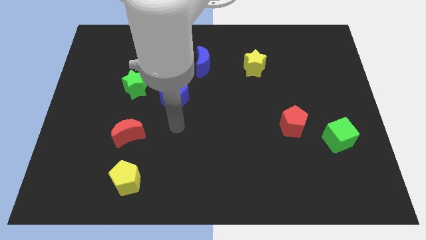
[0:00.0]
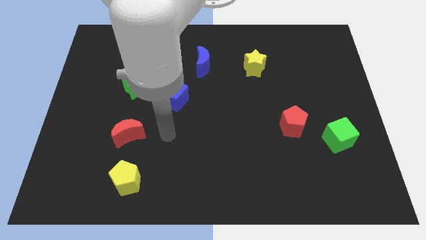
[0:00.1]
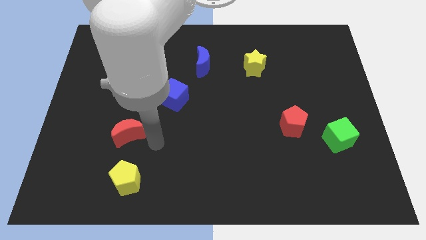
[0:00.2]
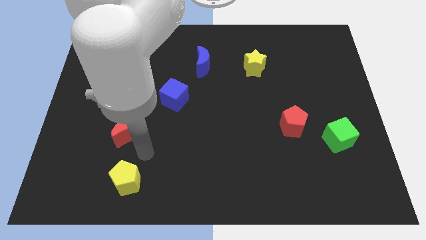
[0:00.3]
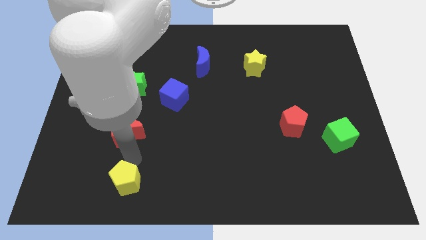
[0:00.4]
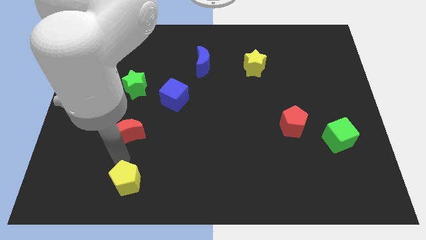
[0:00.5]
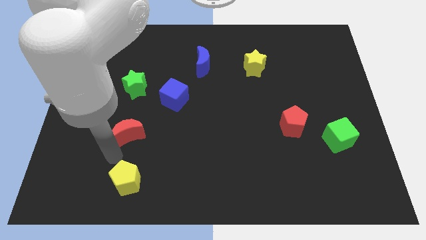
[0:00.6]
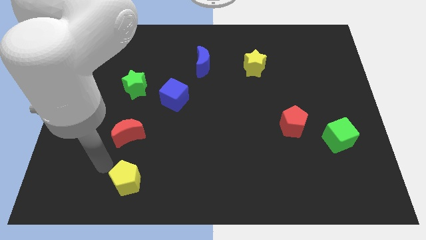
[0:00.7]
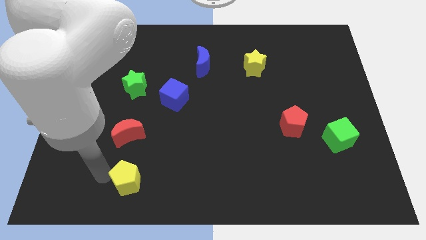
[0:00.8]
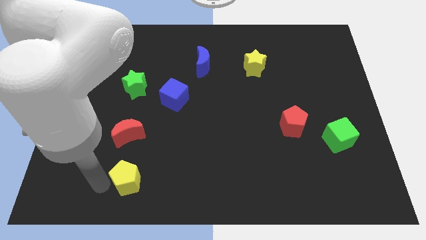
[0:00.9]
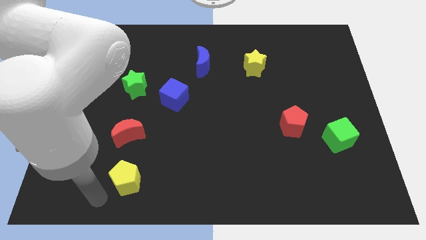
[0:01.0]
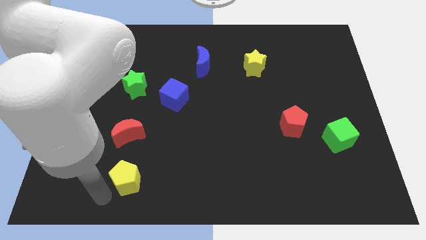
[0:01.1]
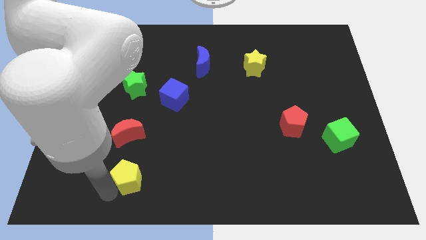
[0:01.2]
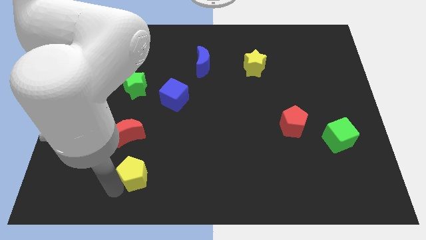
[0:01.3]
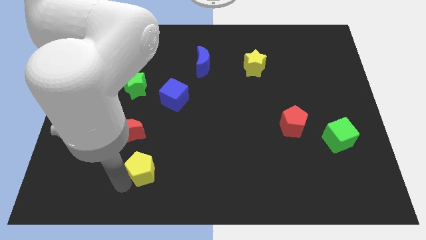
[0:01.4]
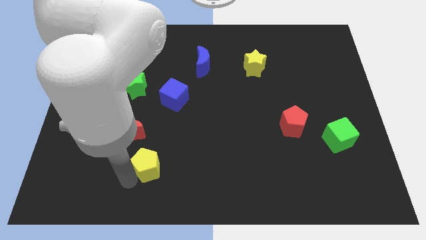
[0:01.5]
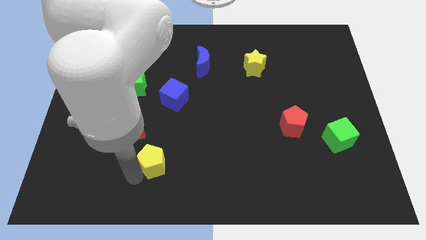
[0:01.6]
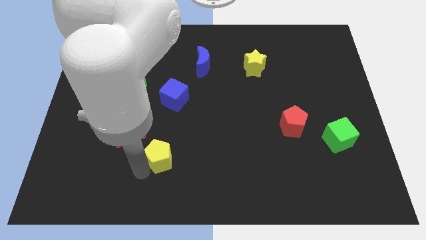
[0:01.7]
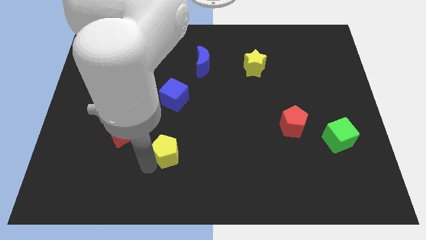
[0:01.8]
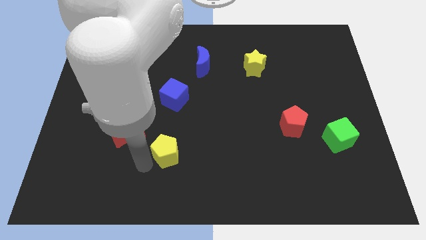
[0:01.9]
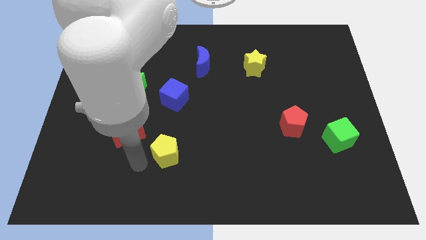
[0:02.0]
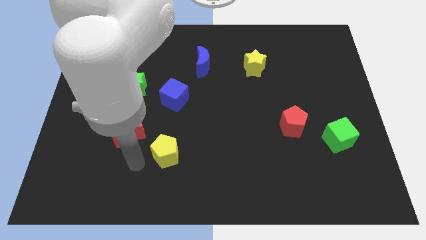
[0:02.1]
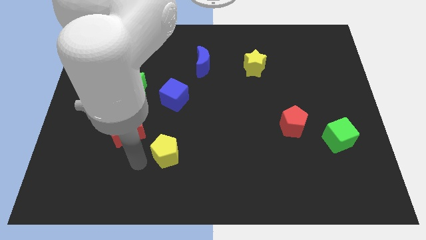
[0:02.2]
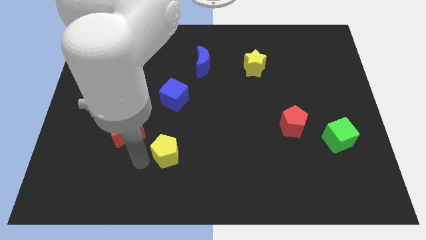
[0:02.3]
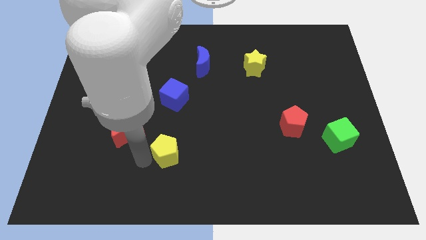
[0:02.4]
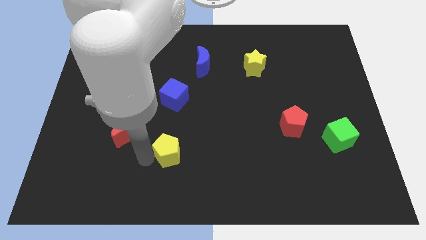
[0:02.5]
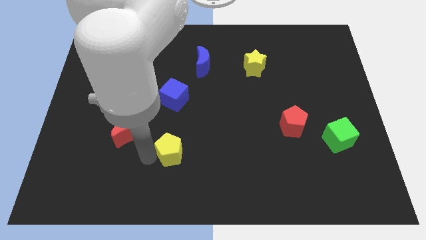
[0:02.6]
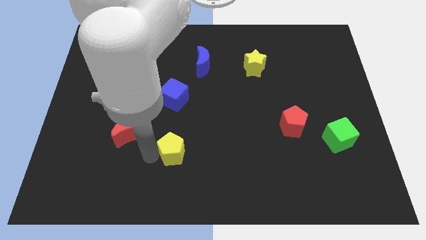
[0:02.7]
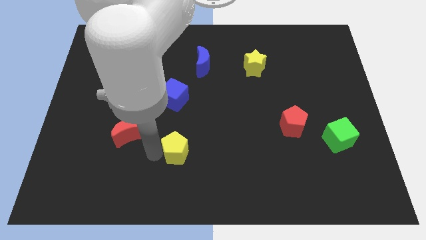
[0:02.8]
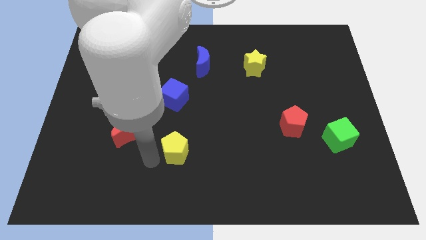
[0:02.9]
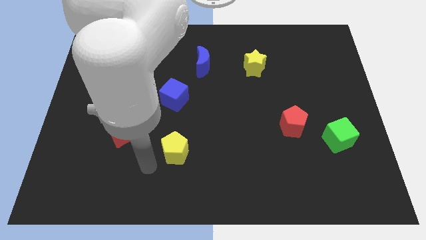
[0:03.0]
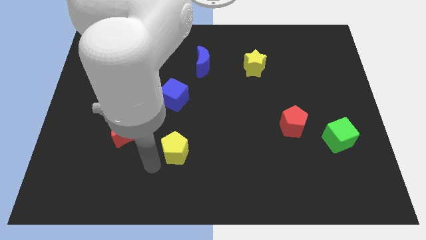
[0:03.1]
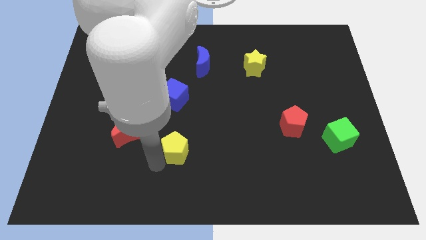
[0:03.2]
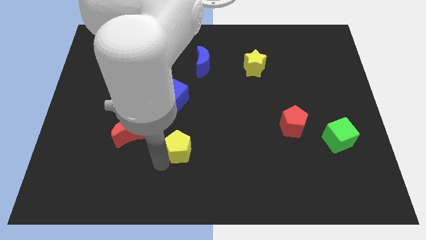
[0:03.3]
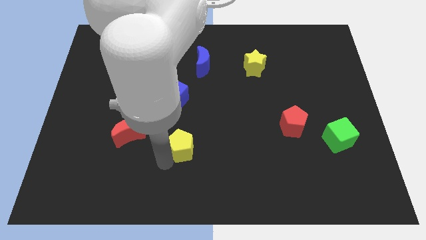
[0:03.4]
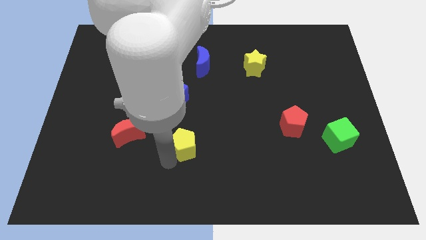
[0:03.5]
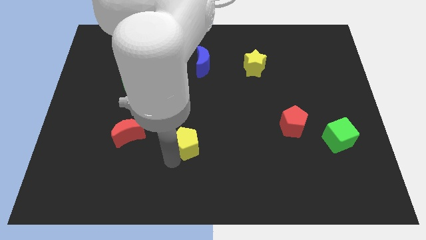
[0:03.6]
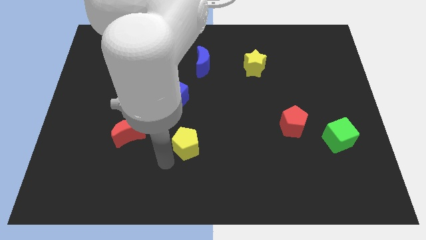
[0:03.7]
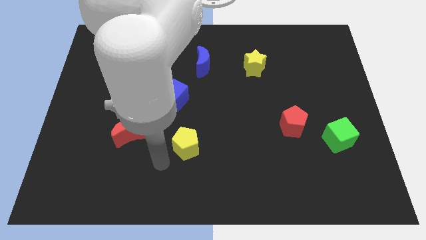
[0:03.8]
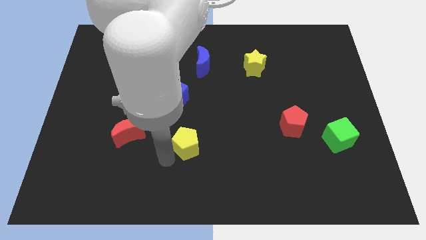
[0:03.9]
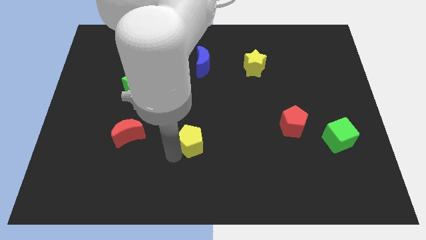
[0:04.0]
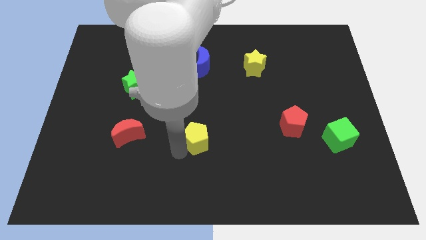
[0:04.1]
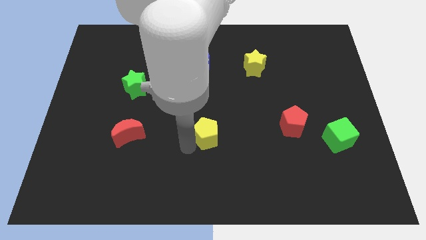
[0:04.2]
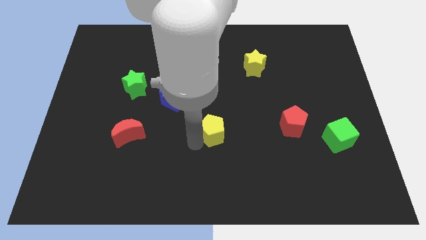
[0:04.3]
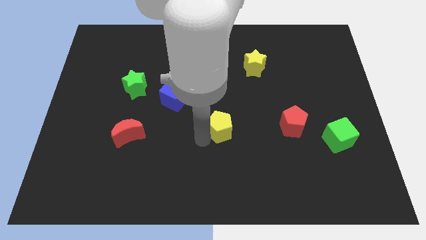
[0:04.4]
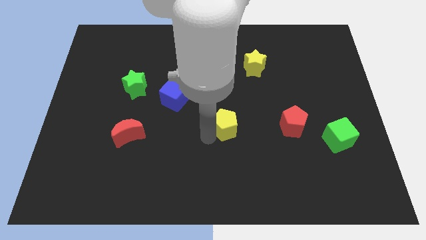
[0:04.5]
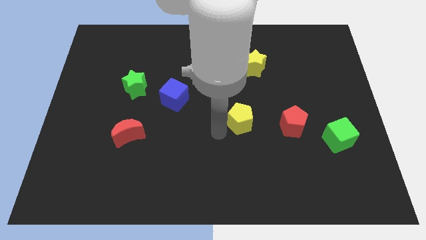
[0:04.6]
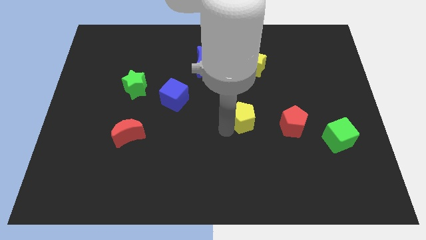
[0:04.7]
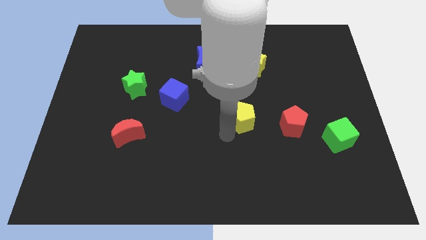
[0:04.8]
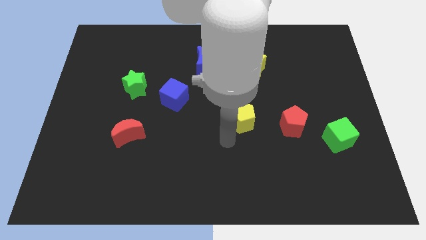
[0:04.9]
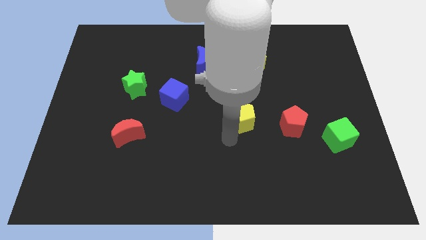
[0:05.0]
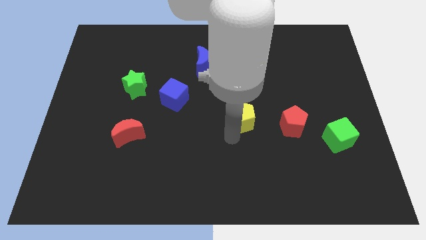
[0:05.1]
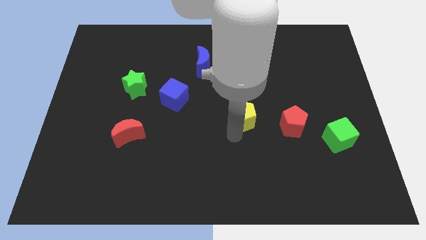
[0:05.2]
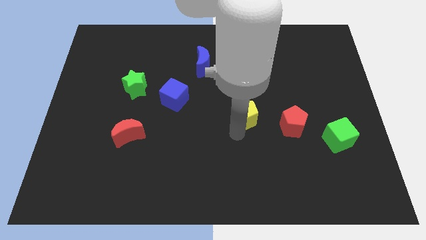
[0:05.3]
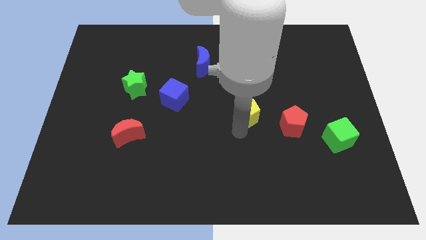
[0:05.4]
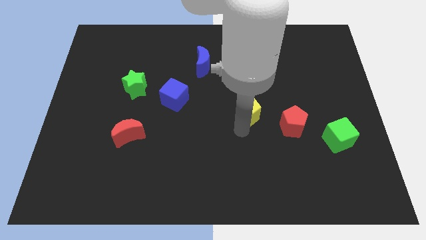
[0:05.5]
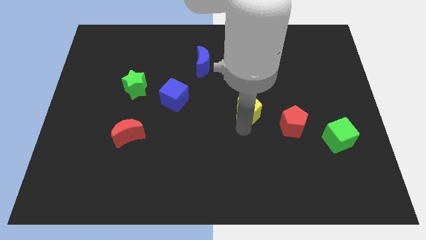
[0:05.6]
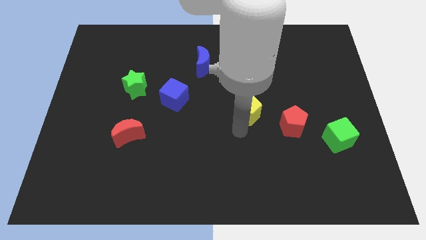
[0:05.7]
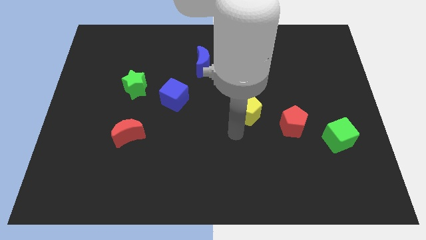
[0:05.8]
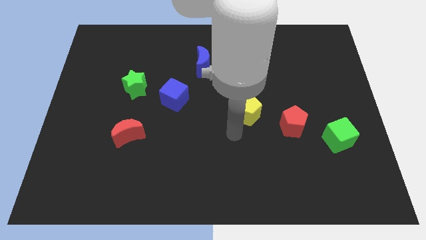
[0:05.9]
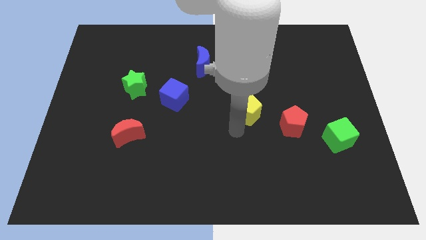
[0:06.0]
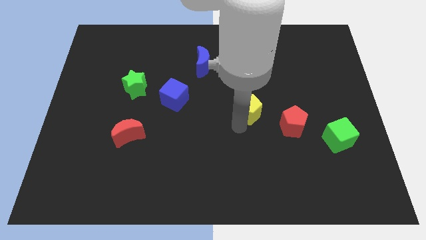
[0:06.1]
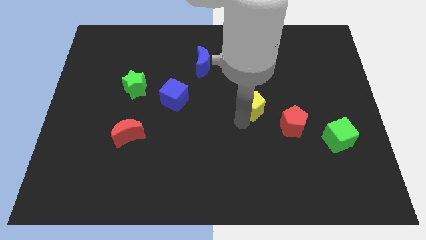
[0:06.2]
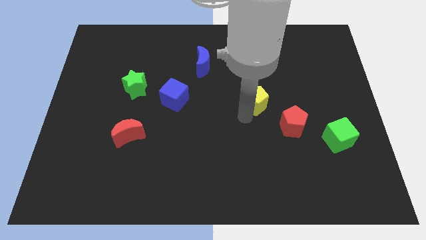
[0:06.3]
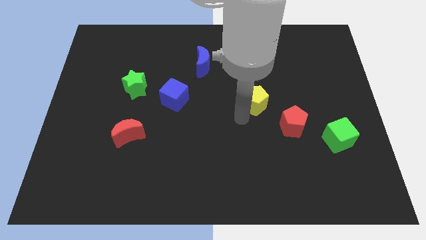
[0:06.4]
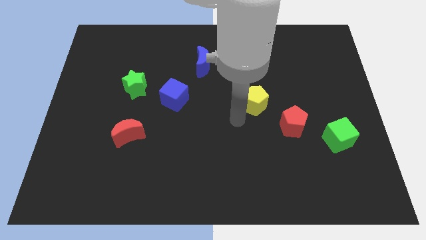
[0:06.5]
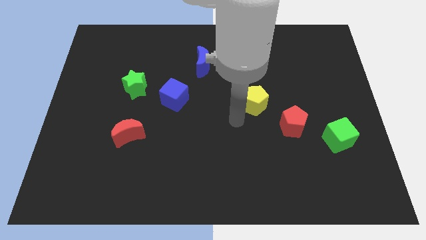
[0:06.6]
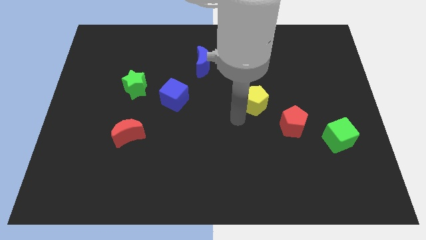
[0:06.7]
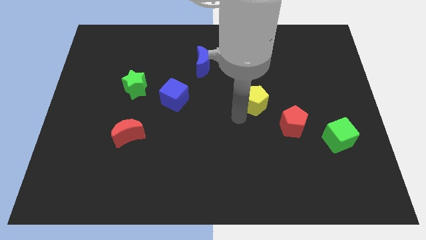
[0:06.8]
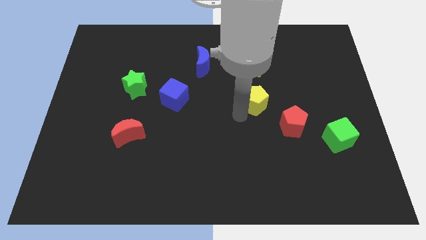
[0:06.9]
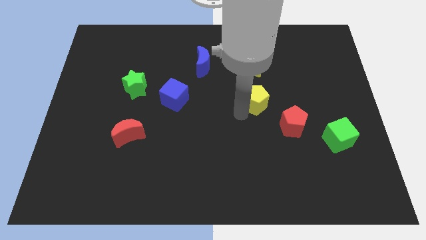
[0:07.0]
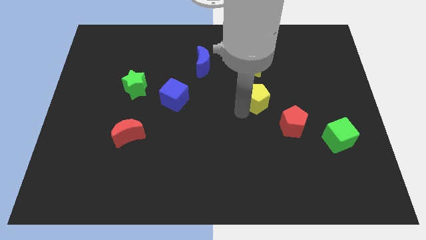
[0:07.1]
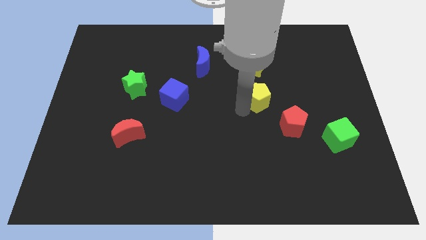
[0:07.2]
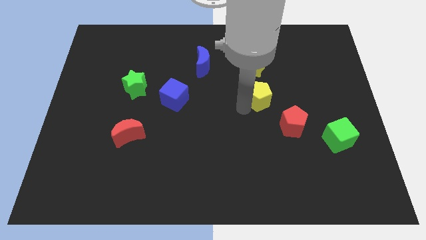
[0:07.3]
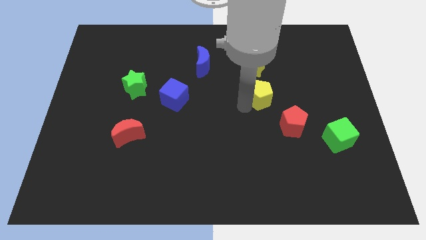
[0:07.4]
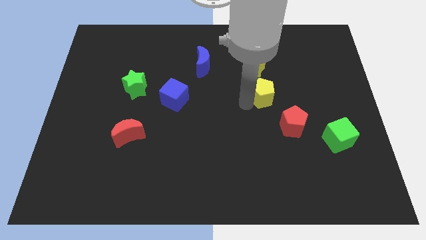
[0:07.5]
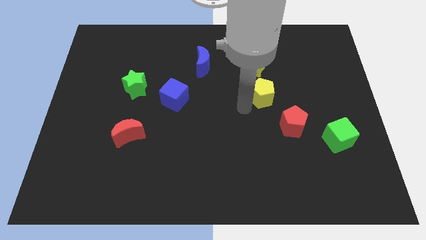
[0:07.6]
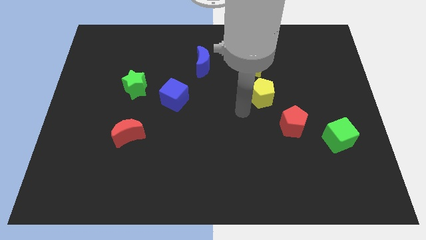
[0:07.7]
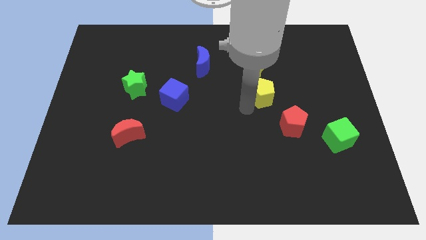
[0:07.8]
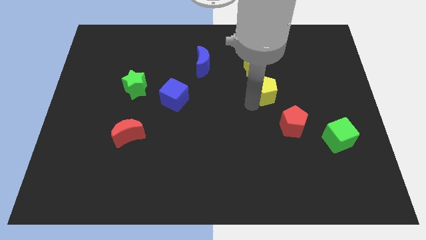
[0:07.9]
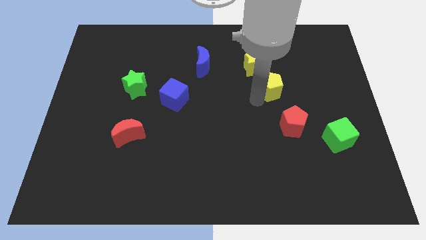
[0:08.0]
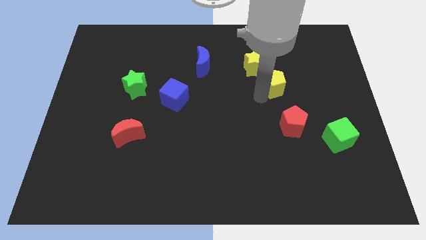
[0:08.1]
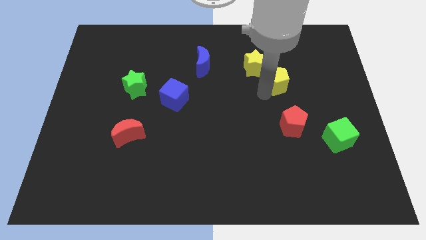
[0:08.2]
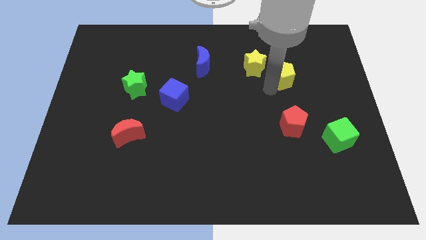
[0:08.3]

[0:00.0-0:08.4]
move the yellow pentagon right of the yellow star
